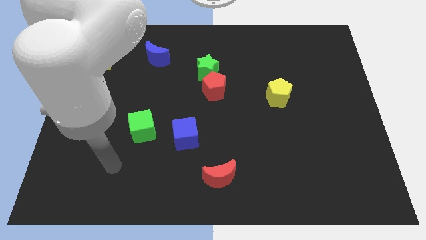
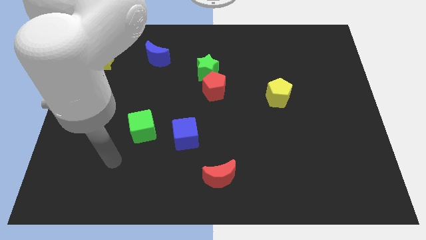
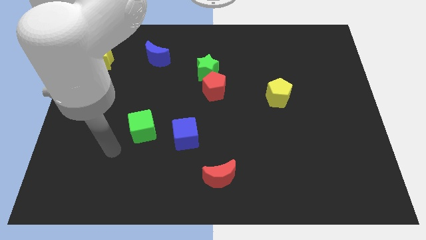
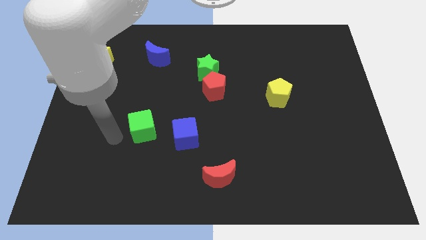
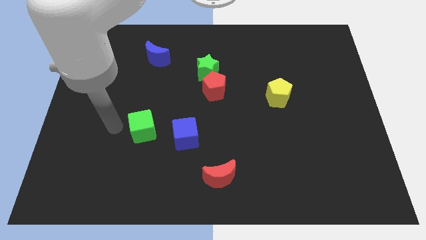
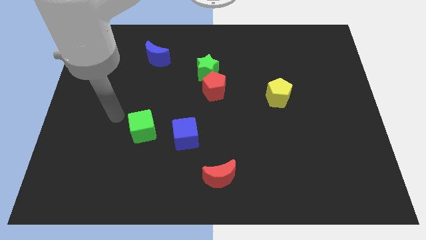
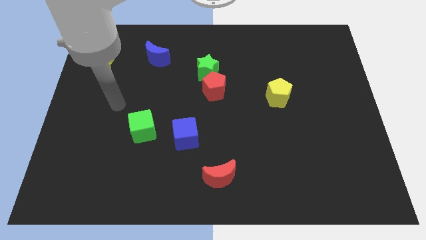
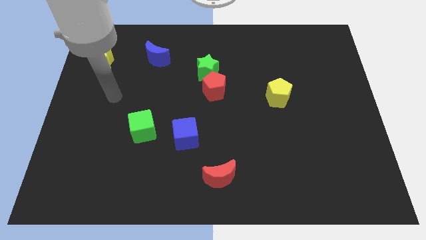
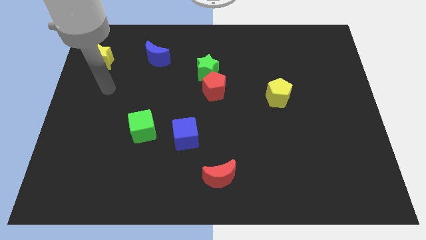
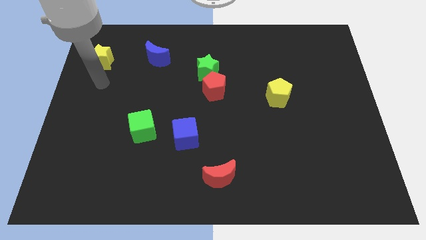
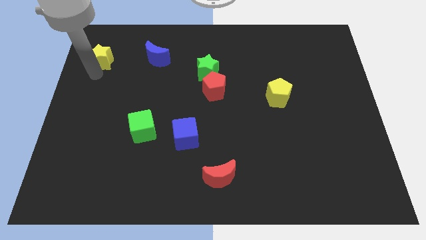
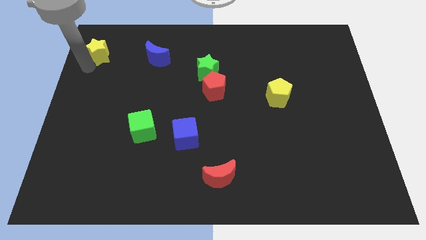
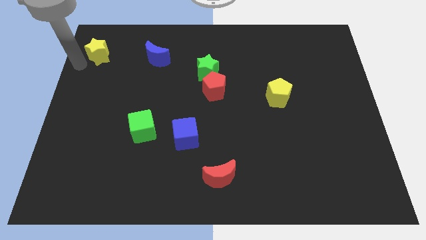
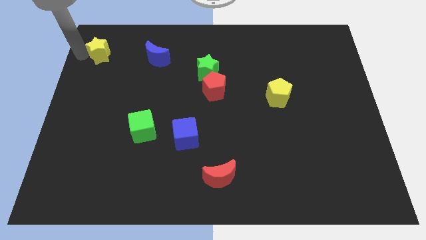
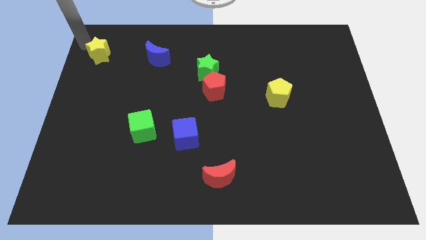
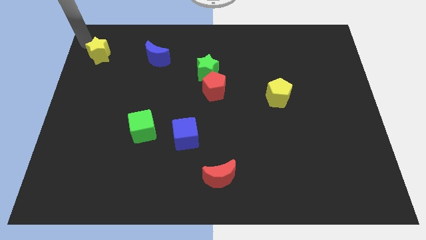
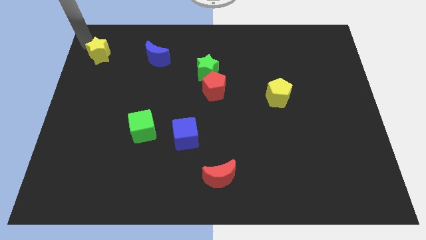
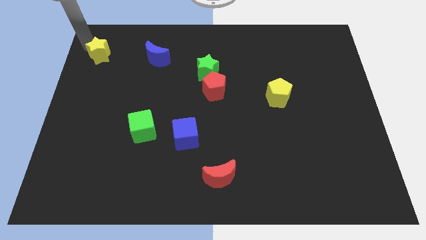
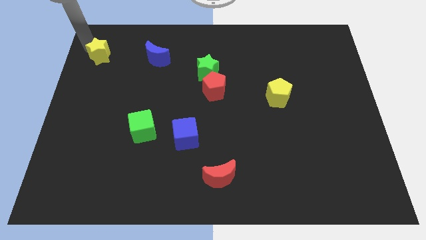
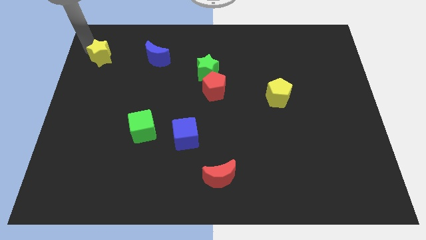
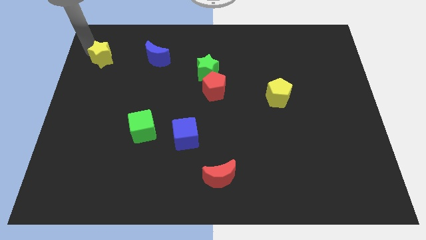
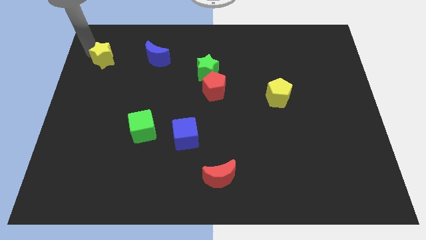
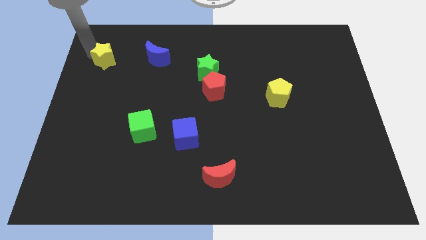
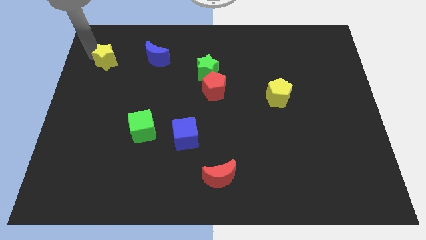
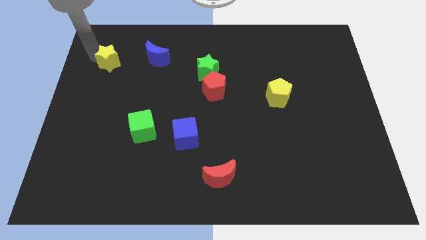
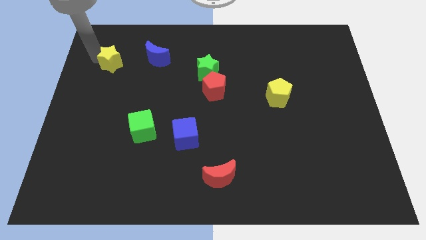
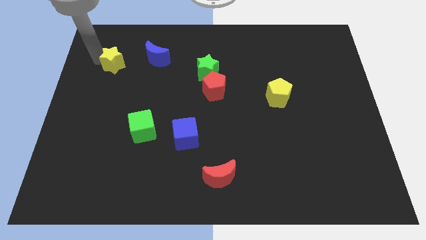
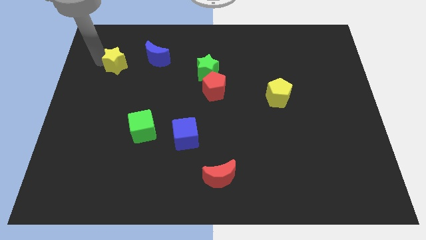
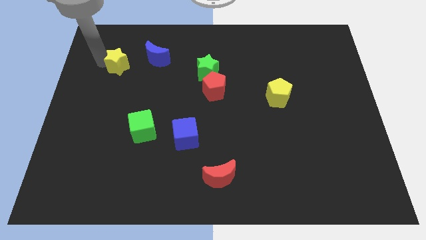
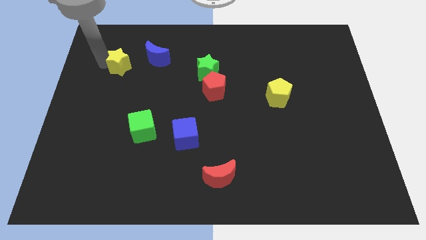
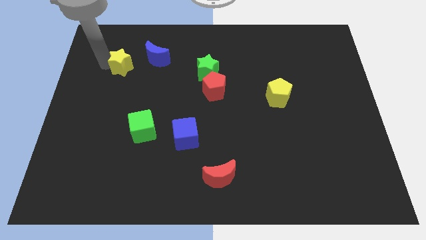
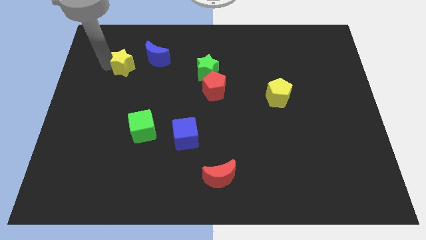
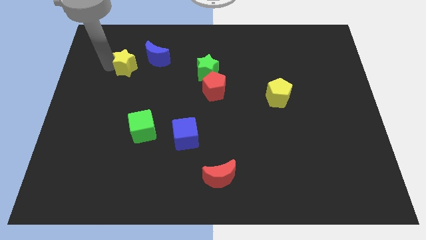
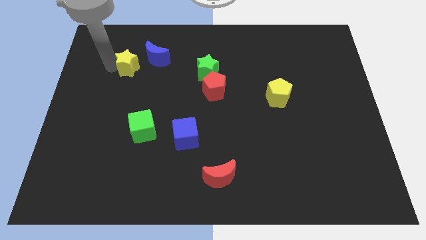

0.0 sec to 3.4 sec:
push the yellow star right slightly

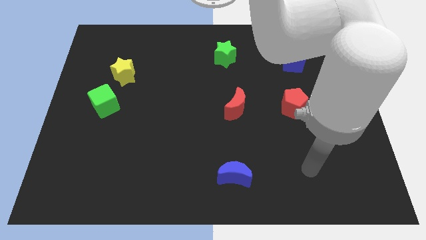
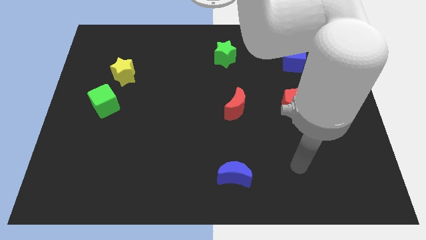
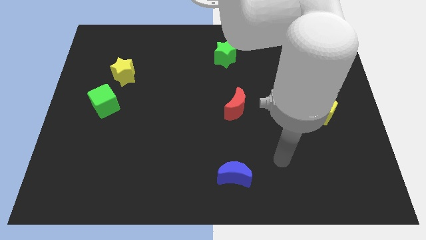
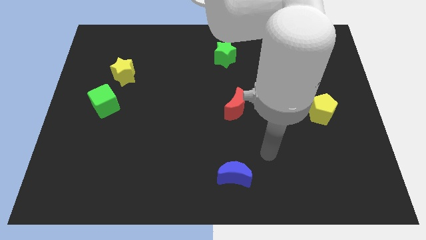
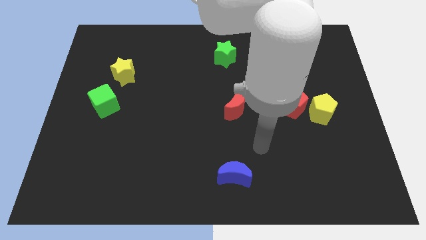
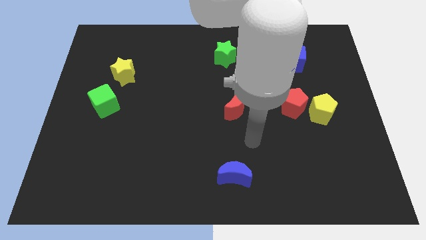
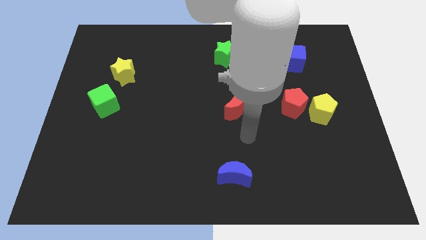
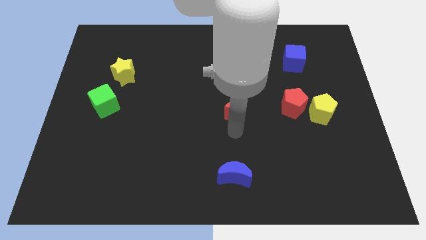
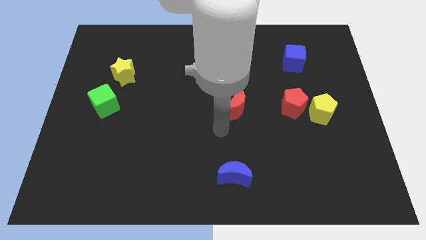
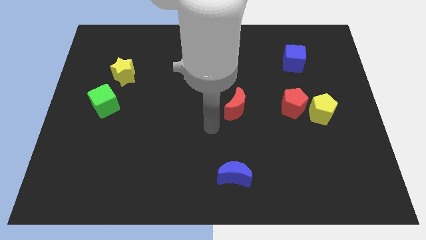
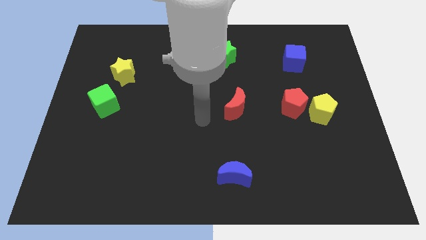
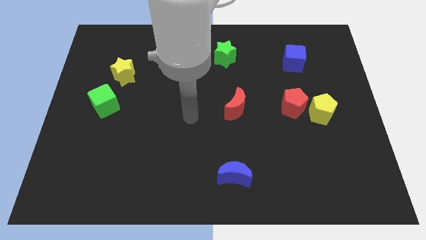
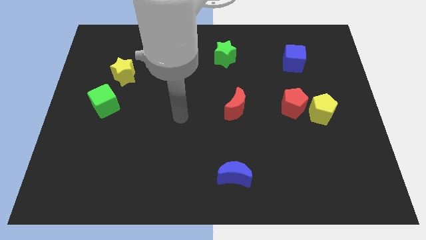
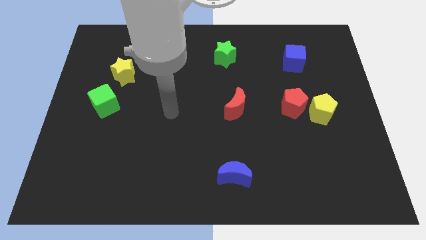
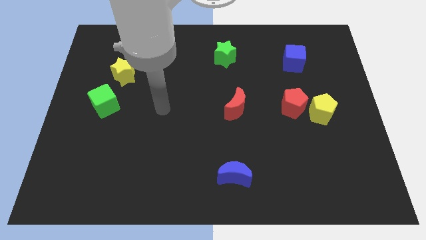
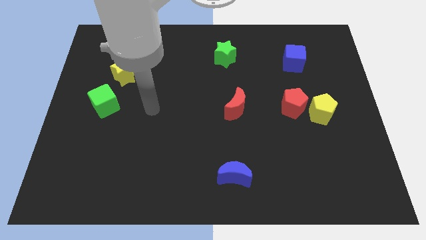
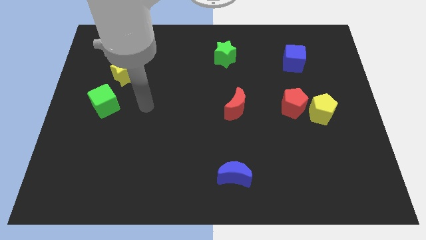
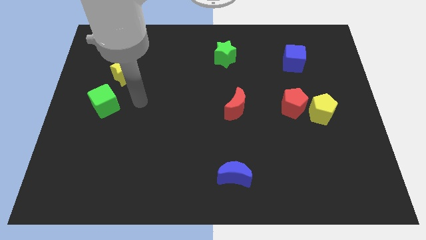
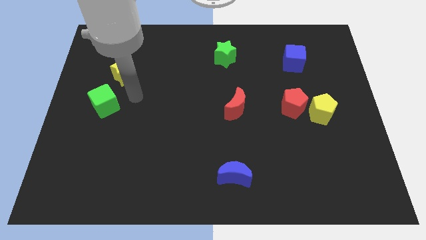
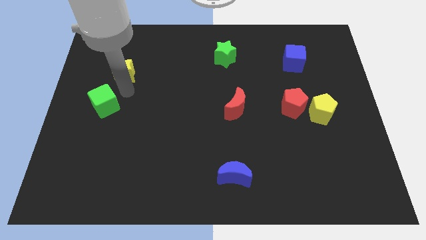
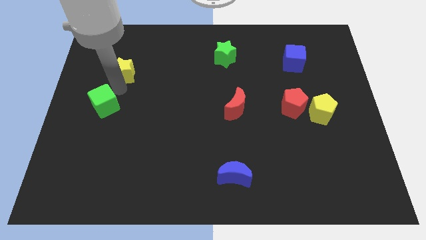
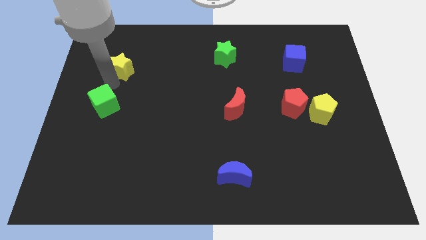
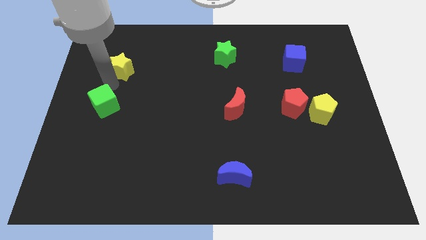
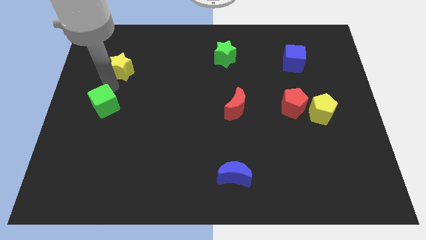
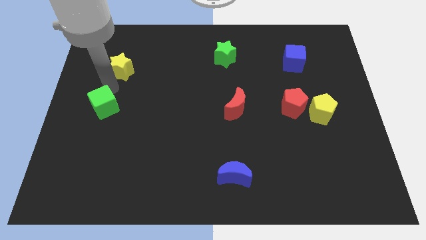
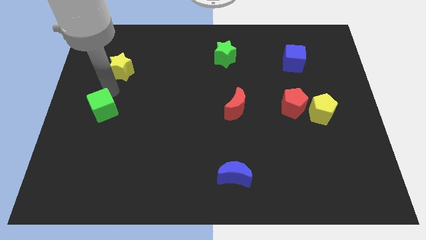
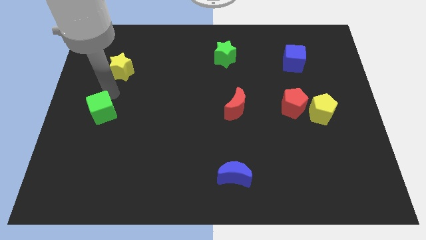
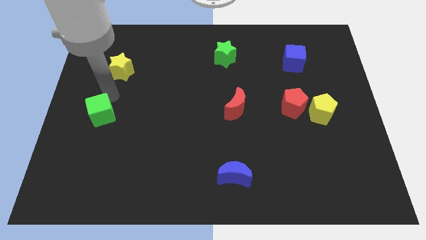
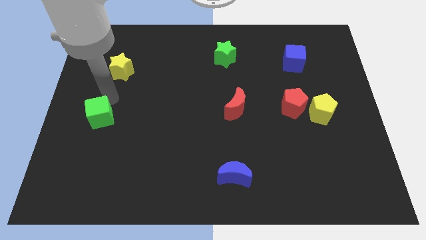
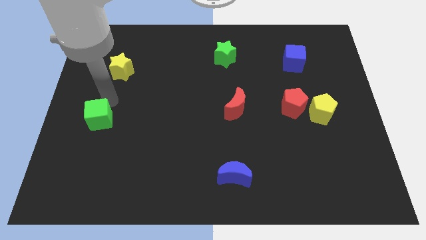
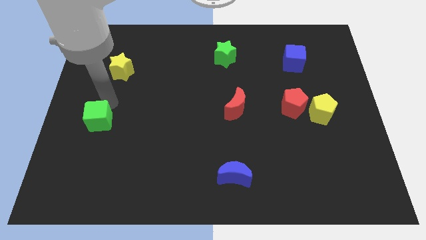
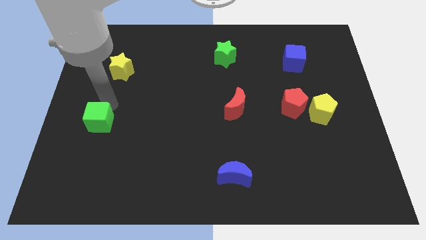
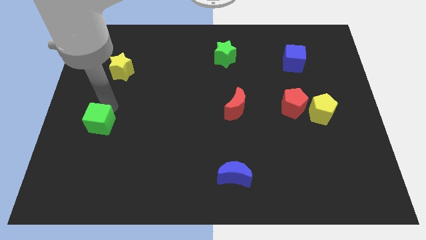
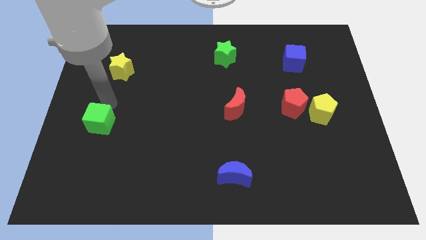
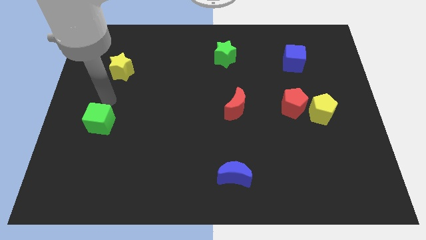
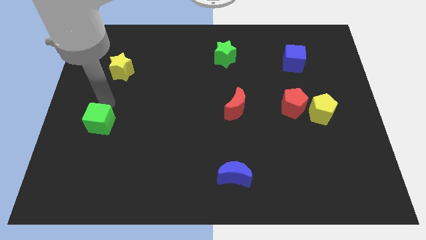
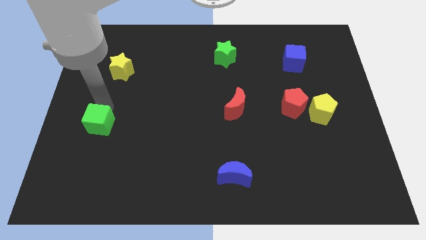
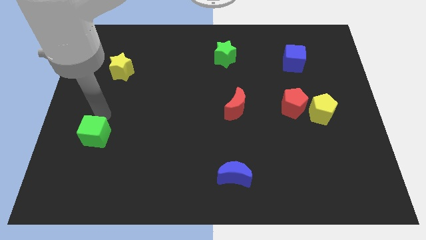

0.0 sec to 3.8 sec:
slightly slide the green cube down

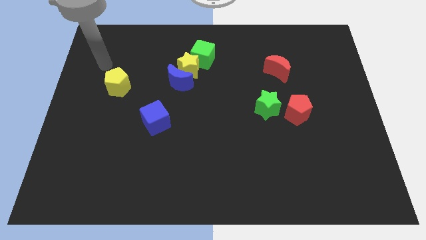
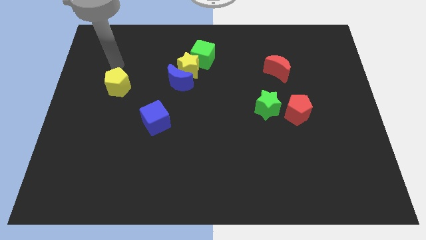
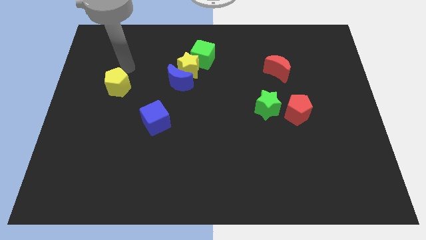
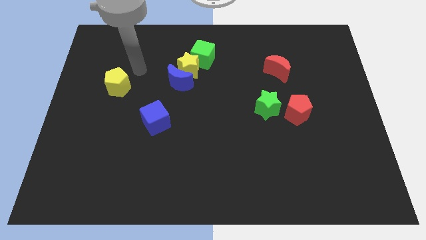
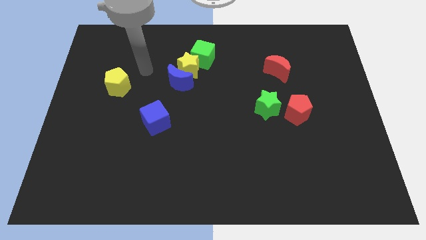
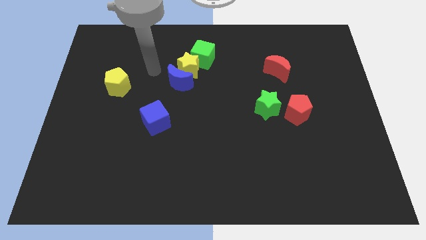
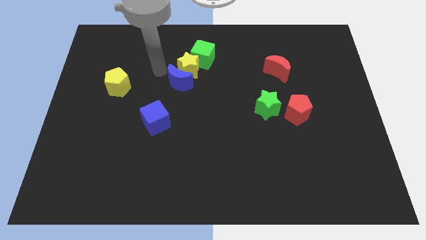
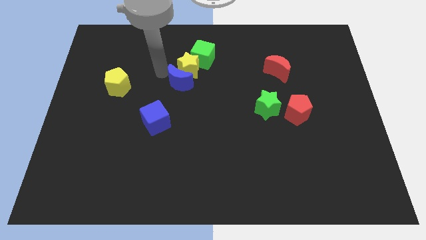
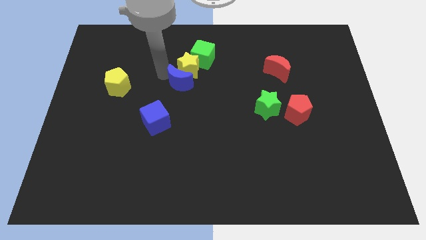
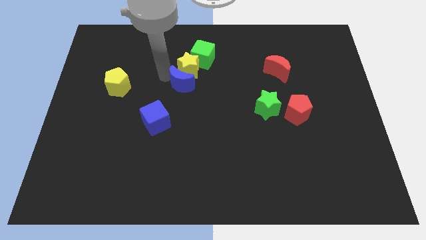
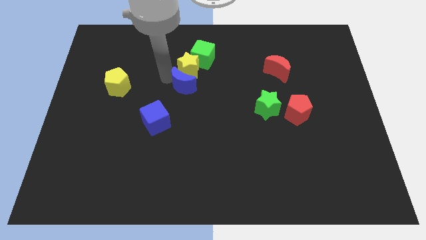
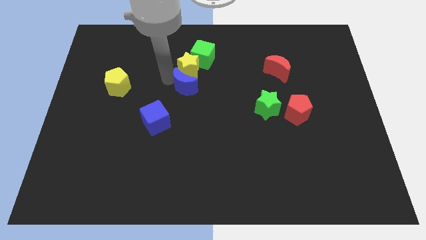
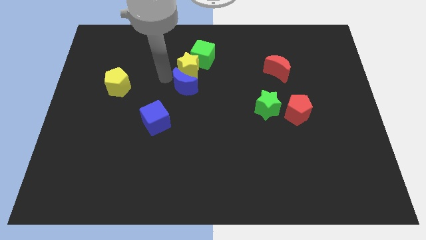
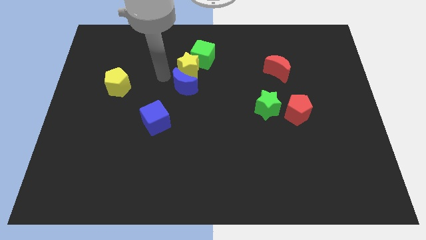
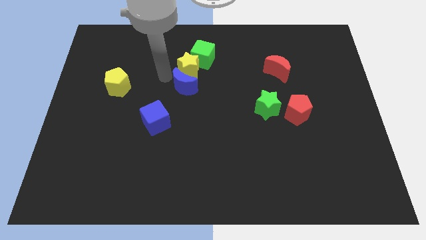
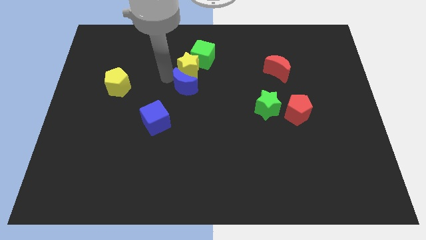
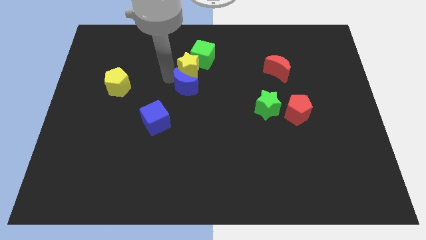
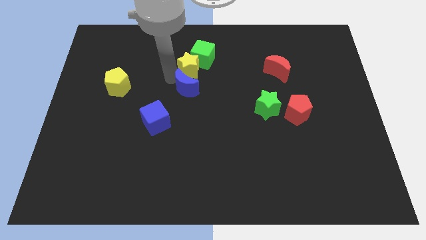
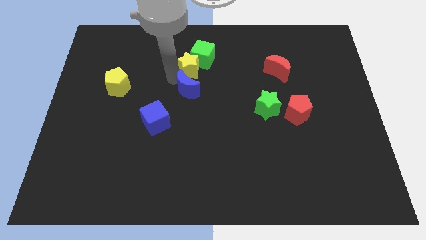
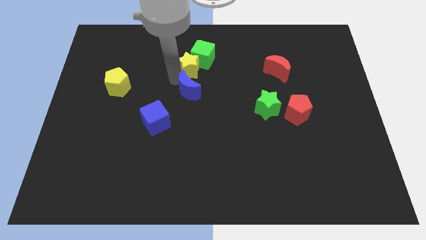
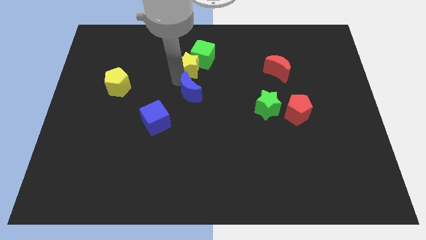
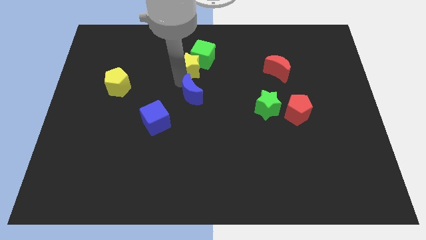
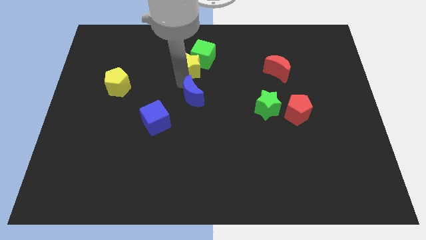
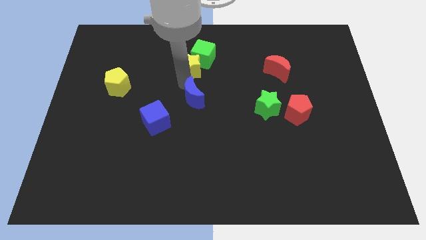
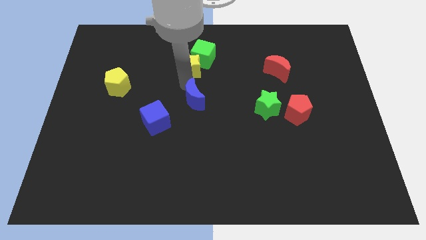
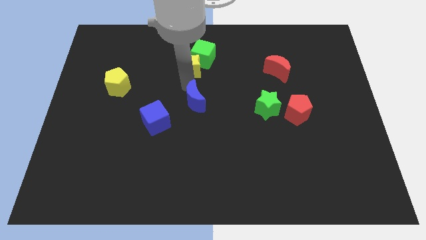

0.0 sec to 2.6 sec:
push the blue moon diagonally downwards and right a bit
